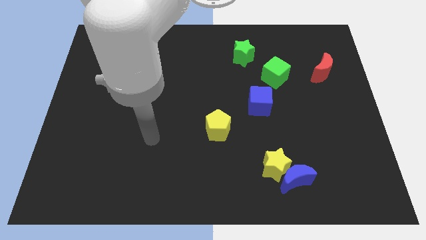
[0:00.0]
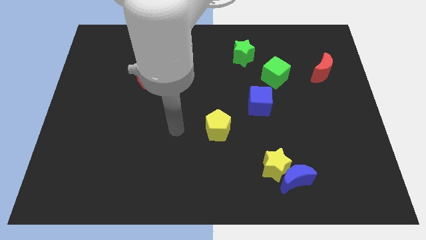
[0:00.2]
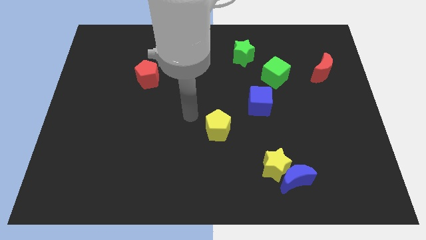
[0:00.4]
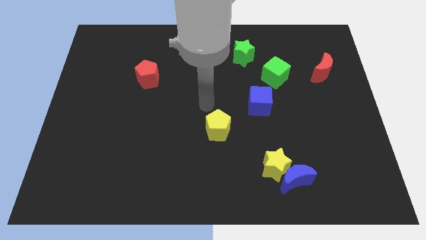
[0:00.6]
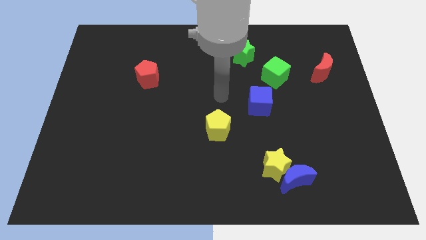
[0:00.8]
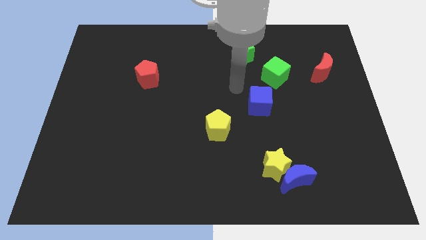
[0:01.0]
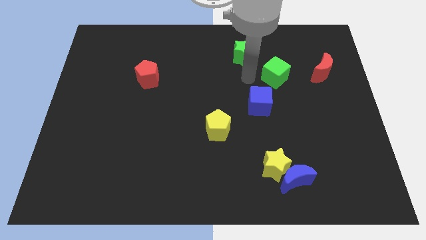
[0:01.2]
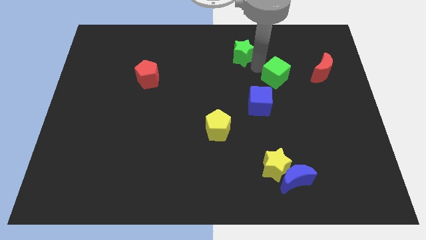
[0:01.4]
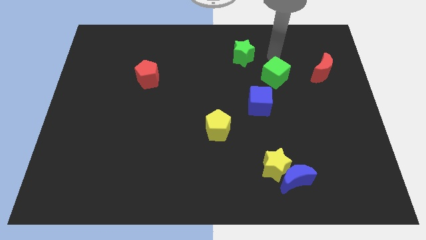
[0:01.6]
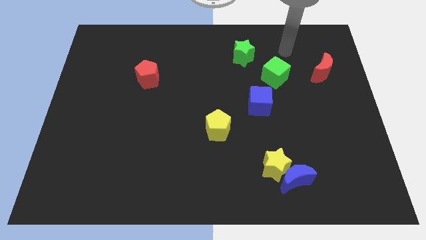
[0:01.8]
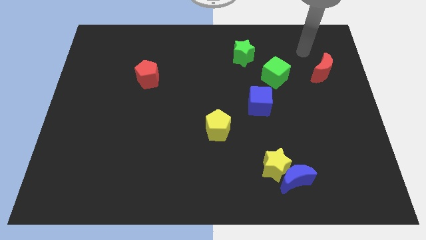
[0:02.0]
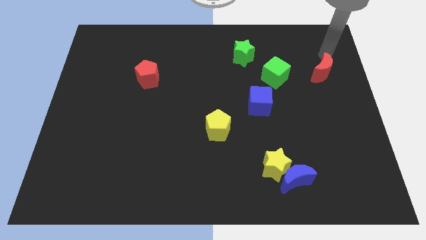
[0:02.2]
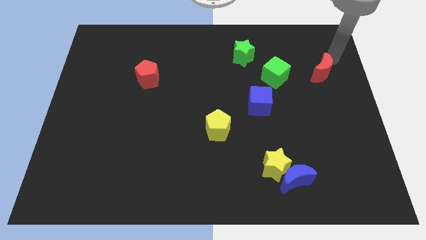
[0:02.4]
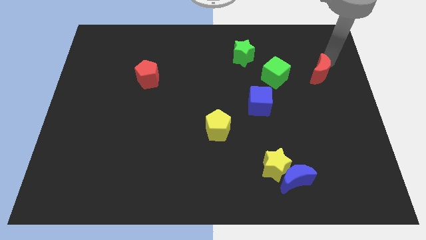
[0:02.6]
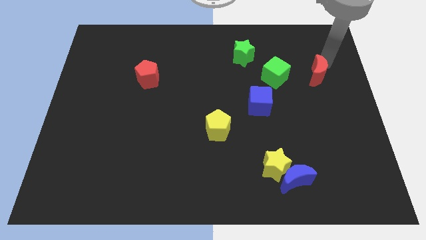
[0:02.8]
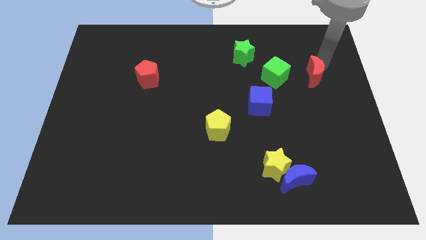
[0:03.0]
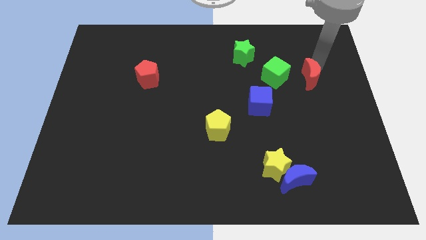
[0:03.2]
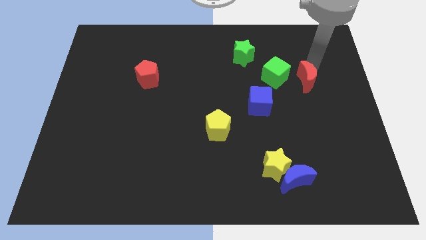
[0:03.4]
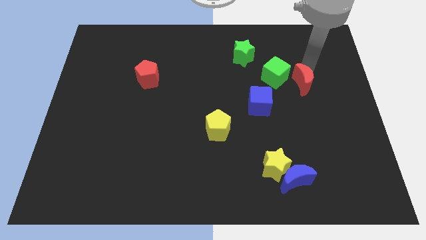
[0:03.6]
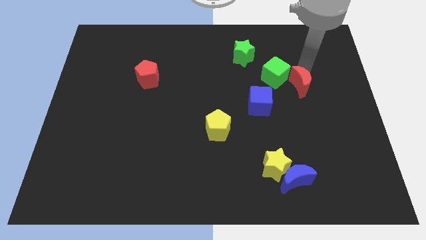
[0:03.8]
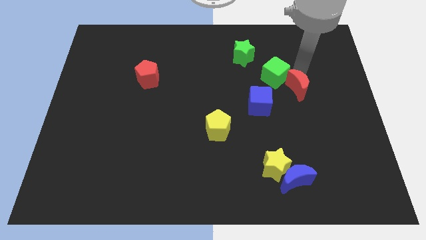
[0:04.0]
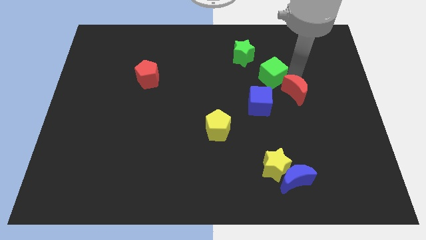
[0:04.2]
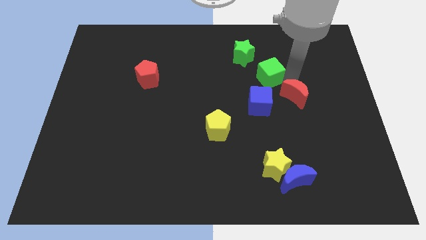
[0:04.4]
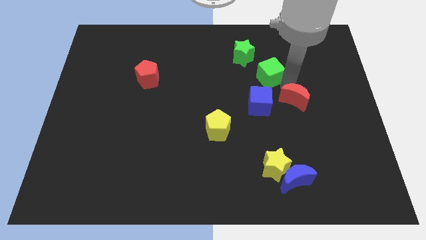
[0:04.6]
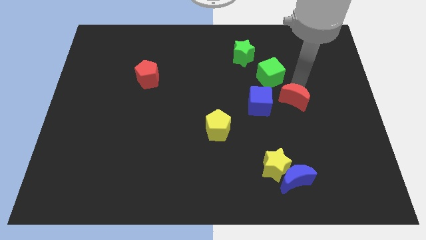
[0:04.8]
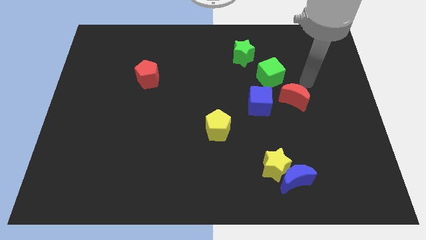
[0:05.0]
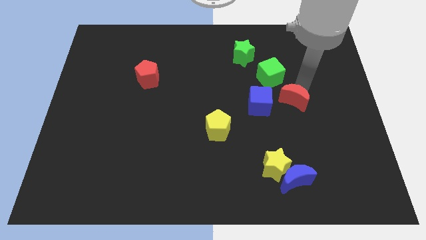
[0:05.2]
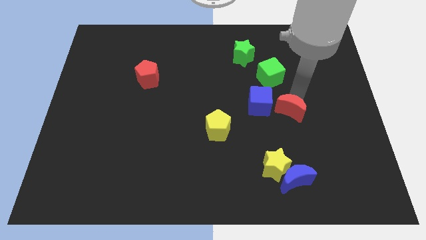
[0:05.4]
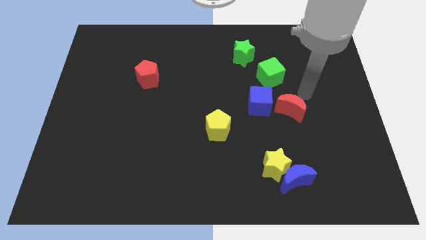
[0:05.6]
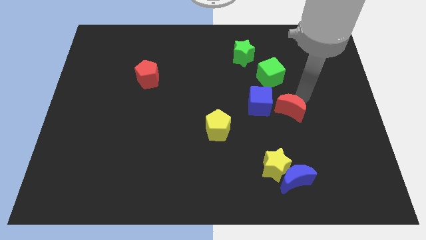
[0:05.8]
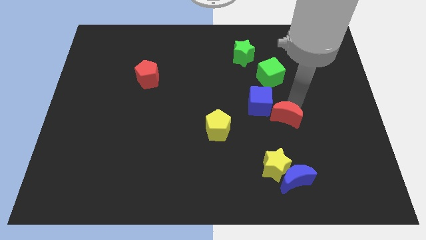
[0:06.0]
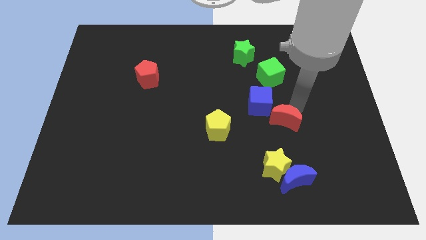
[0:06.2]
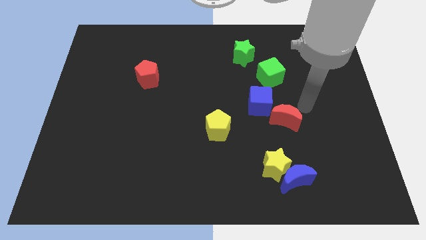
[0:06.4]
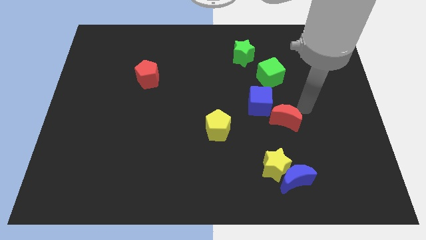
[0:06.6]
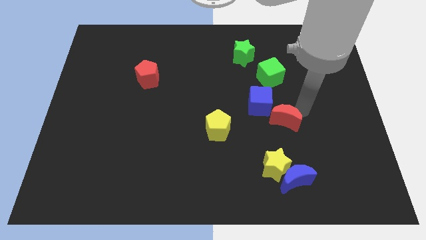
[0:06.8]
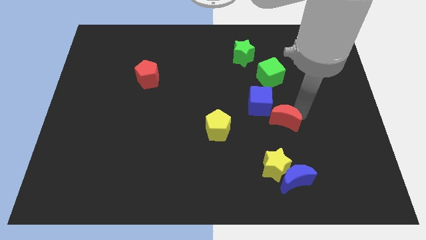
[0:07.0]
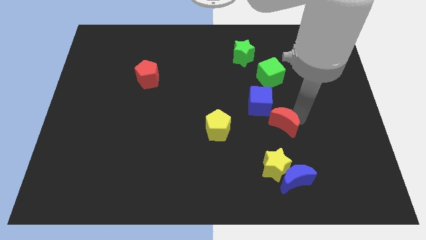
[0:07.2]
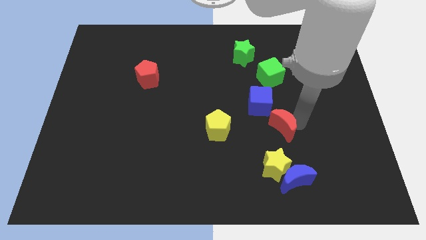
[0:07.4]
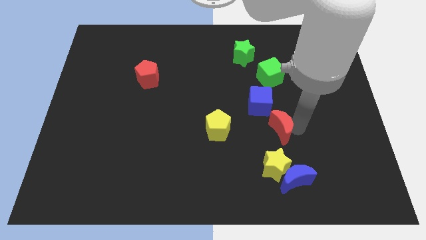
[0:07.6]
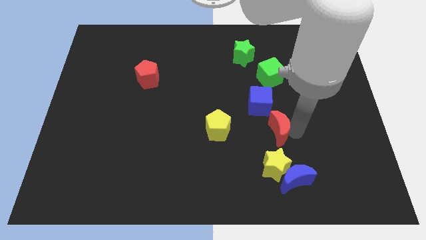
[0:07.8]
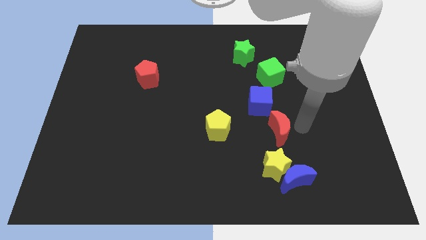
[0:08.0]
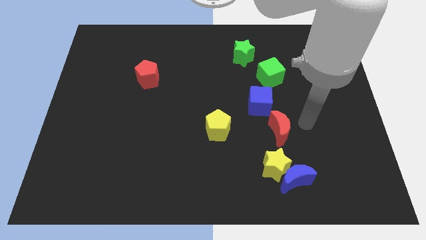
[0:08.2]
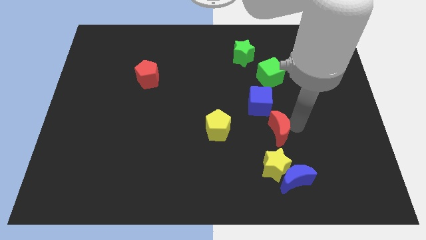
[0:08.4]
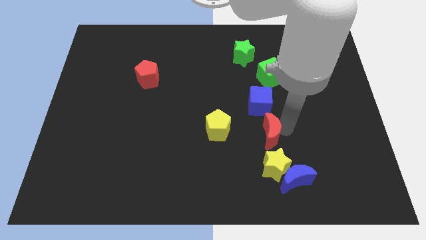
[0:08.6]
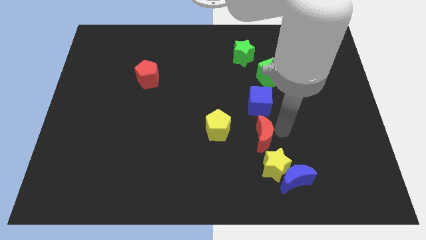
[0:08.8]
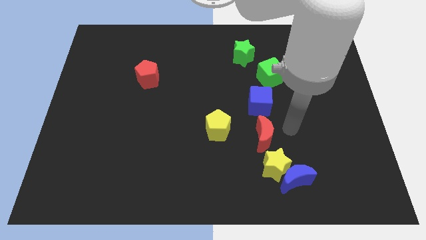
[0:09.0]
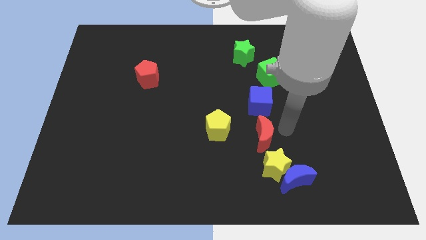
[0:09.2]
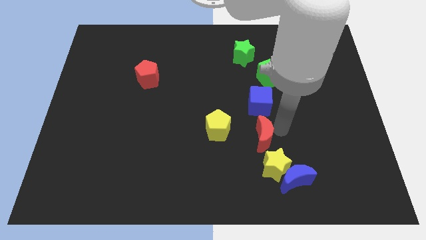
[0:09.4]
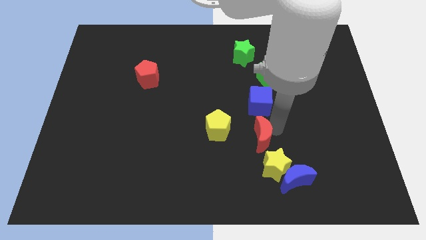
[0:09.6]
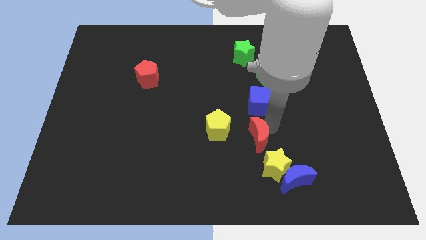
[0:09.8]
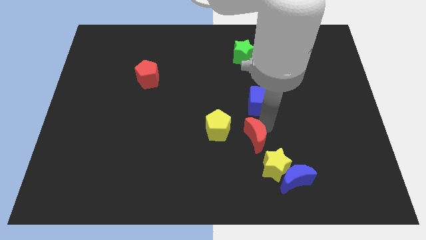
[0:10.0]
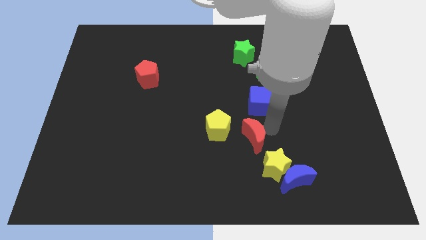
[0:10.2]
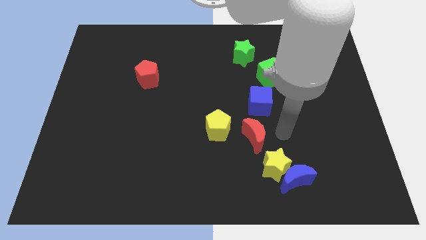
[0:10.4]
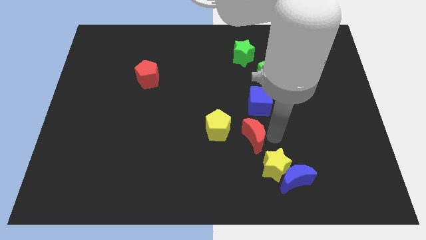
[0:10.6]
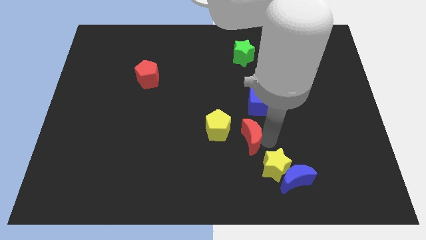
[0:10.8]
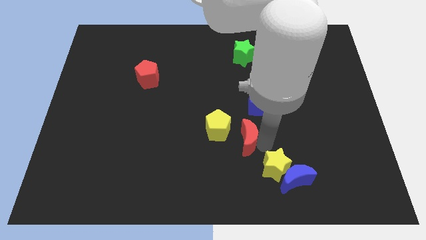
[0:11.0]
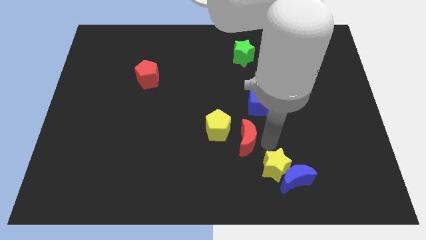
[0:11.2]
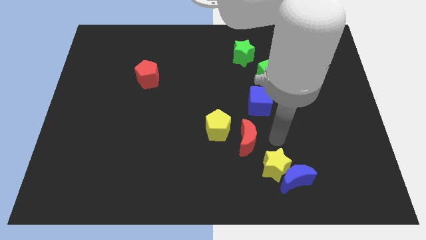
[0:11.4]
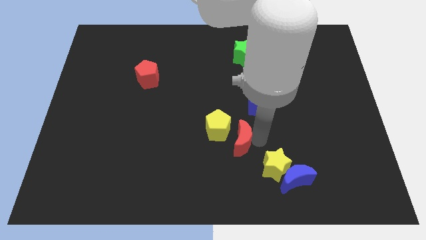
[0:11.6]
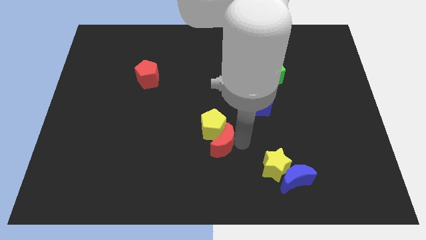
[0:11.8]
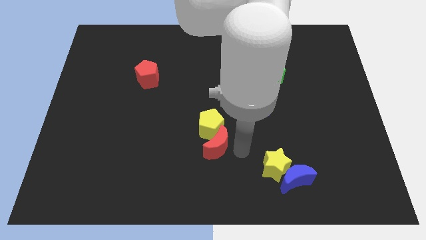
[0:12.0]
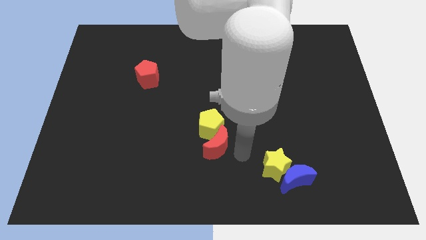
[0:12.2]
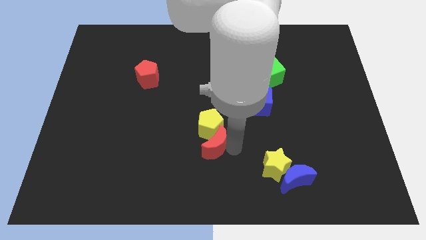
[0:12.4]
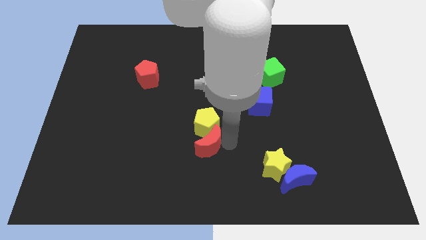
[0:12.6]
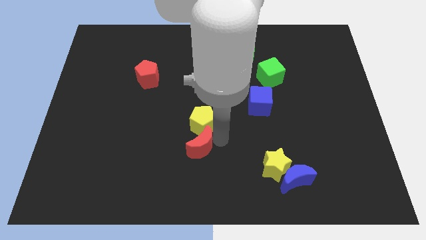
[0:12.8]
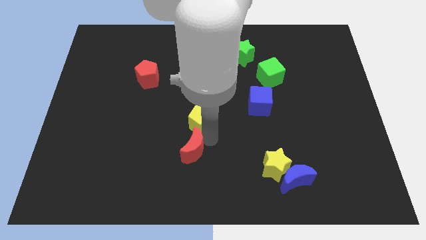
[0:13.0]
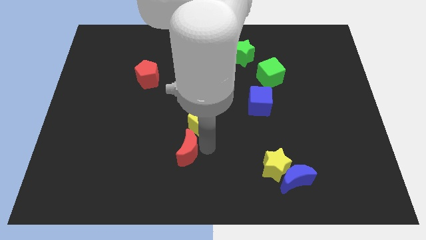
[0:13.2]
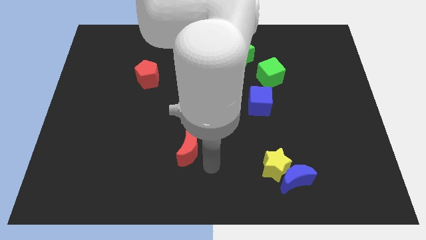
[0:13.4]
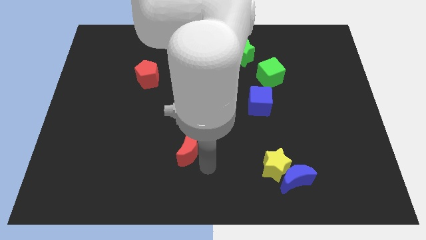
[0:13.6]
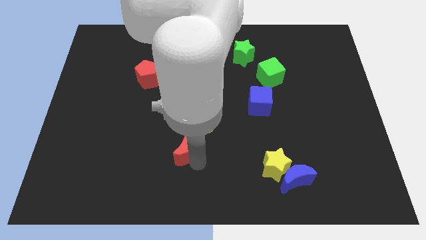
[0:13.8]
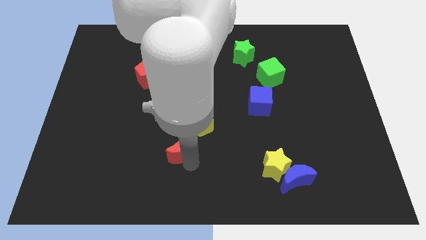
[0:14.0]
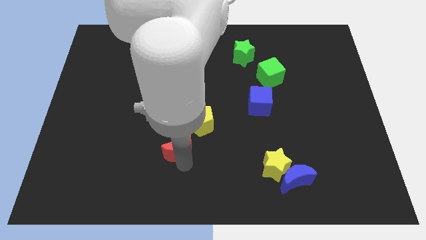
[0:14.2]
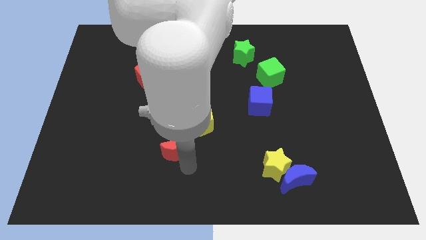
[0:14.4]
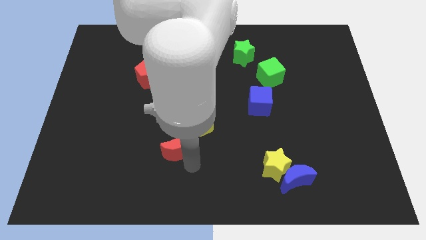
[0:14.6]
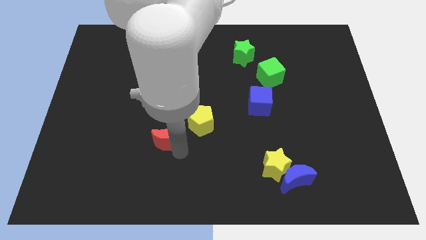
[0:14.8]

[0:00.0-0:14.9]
put the red moon to the left side of the yellow pentagon
